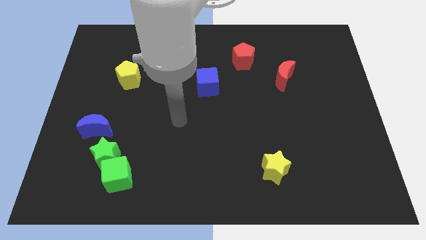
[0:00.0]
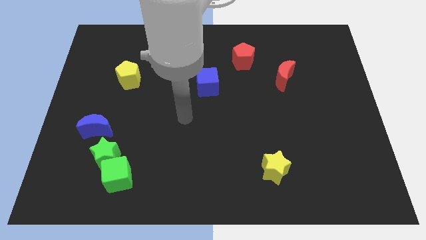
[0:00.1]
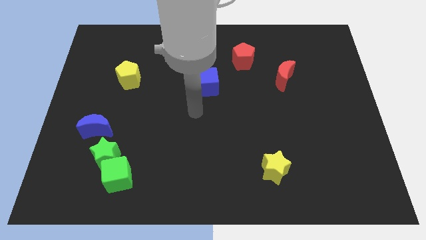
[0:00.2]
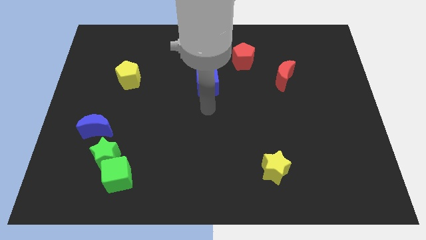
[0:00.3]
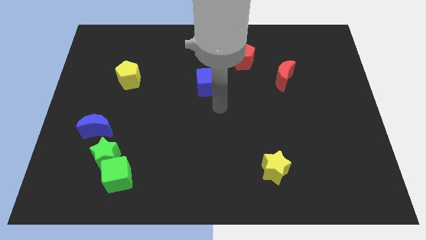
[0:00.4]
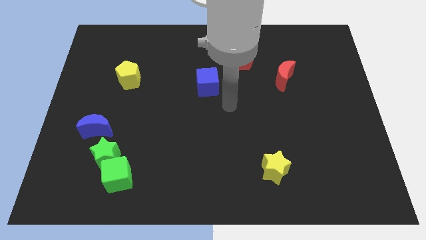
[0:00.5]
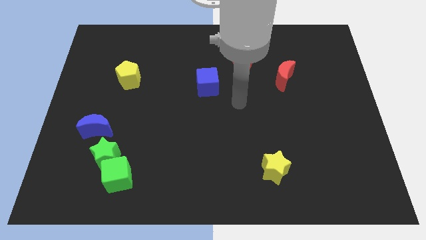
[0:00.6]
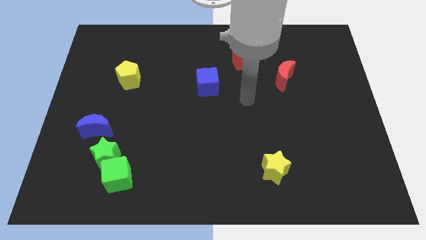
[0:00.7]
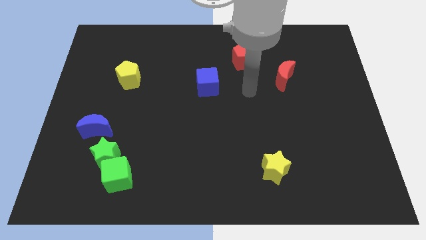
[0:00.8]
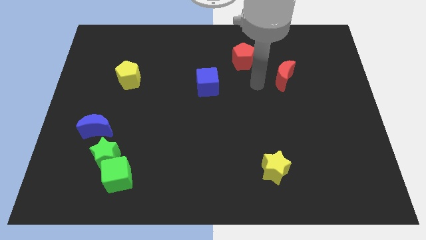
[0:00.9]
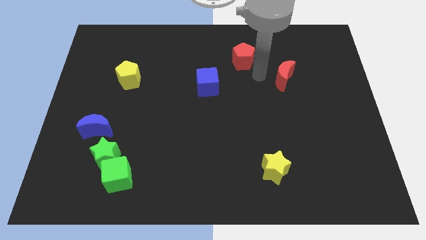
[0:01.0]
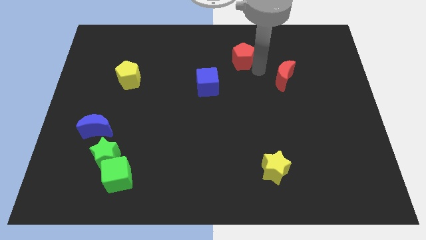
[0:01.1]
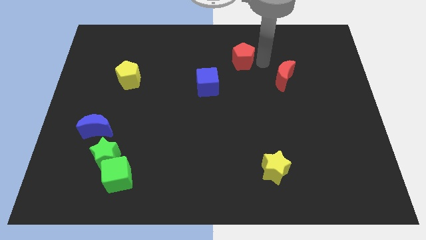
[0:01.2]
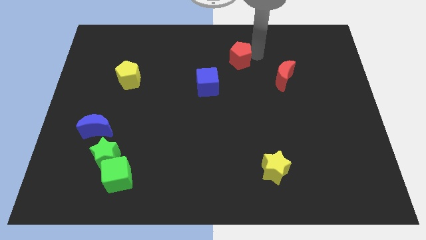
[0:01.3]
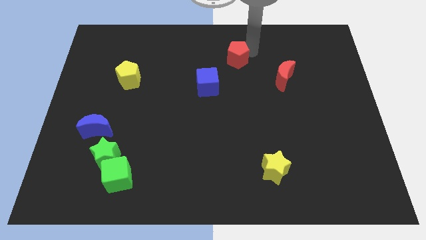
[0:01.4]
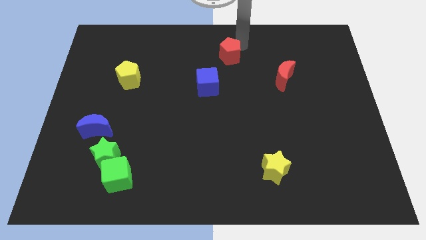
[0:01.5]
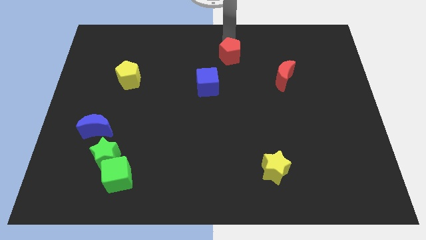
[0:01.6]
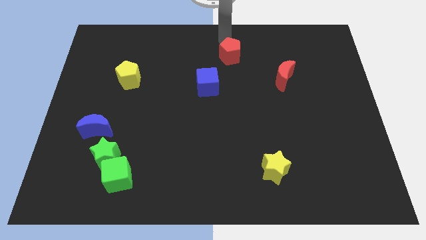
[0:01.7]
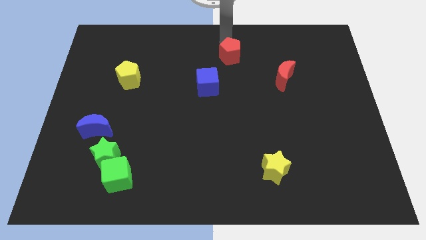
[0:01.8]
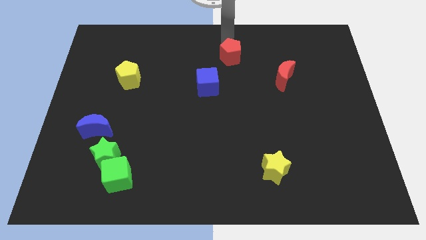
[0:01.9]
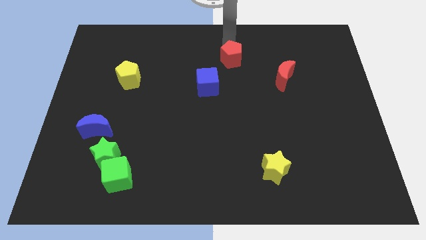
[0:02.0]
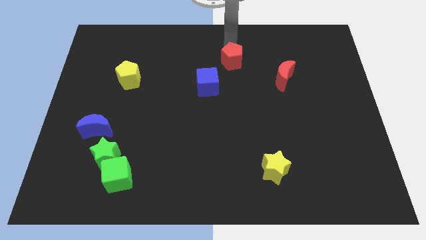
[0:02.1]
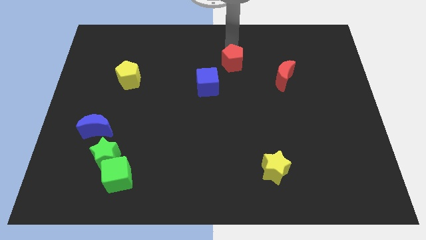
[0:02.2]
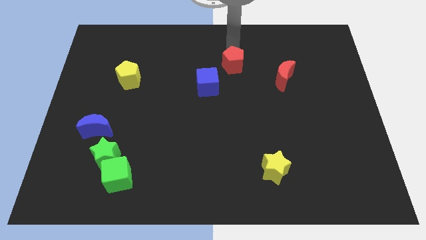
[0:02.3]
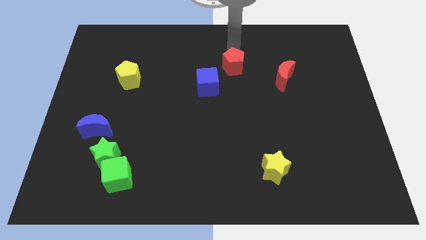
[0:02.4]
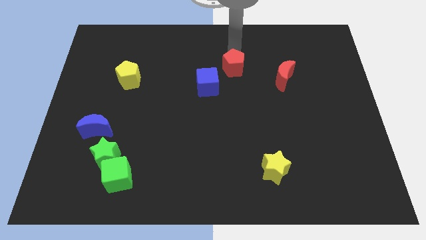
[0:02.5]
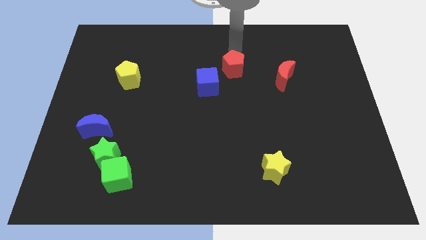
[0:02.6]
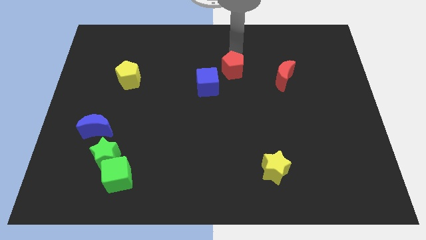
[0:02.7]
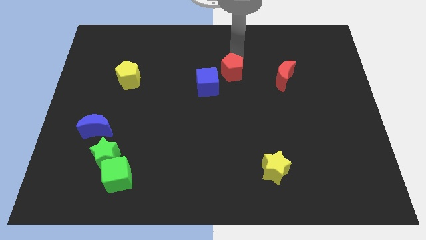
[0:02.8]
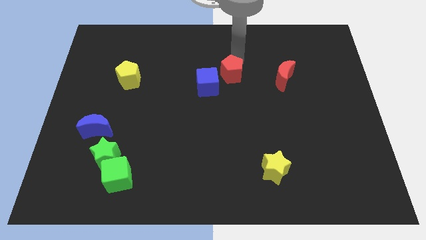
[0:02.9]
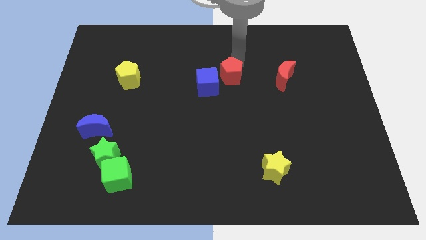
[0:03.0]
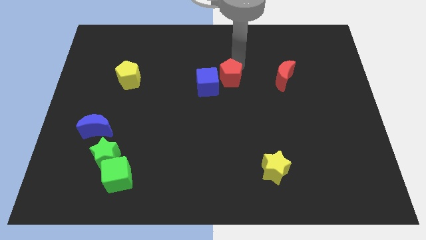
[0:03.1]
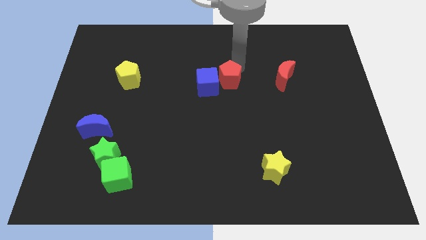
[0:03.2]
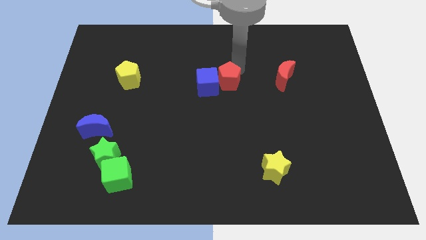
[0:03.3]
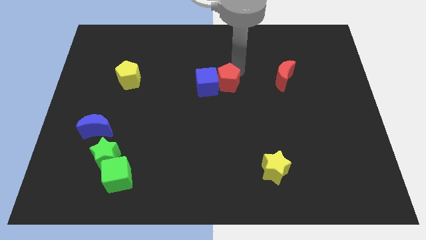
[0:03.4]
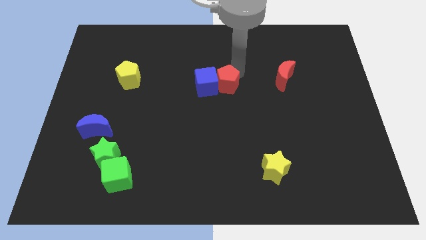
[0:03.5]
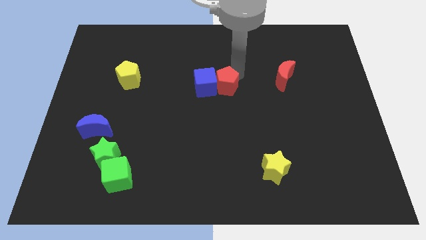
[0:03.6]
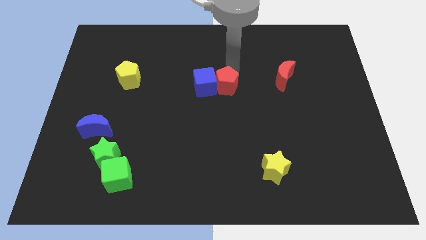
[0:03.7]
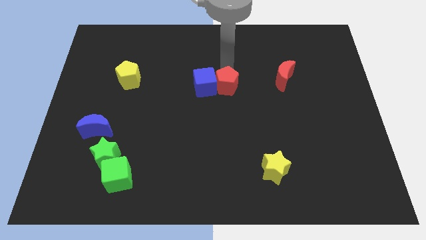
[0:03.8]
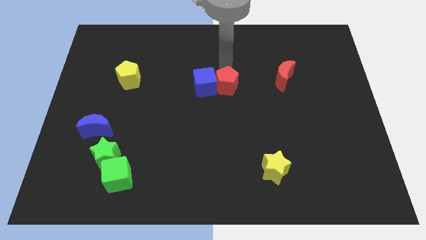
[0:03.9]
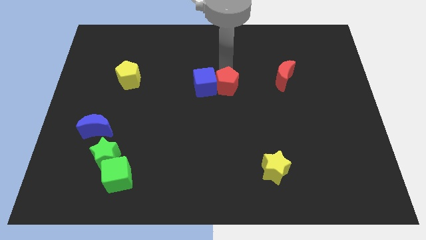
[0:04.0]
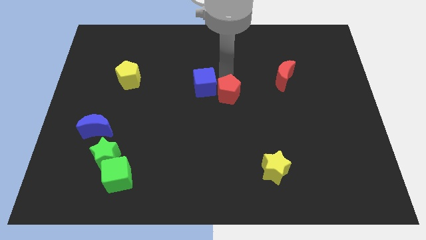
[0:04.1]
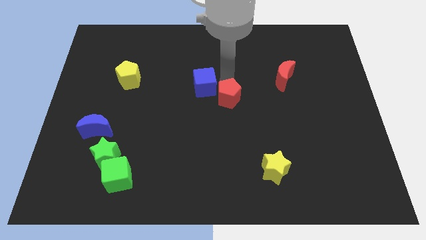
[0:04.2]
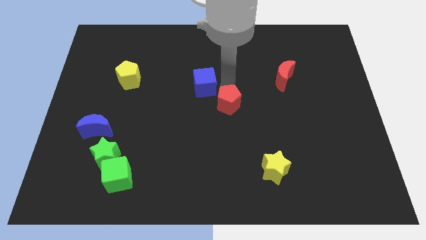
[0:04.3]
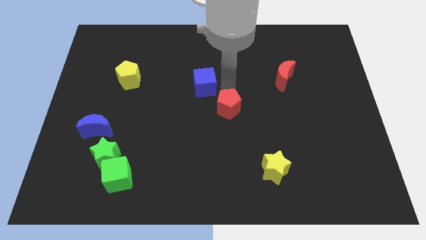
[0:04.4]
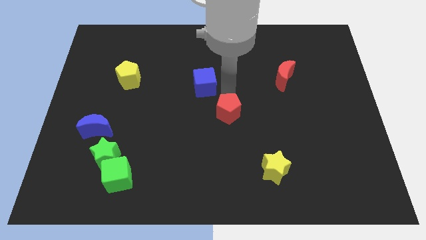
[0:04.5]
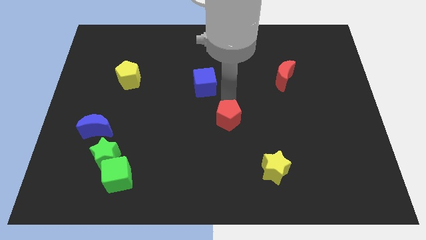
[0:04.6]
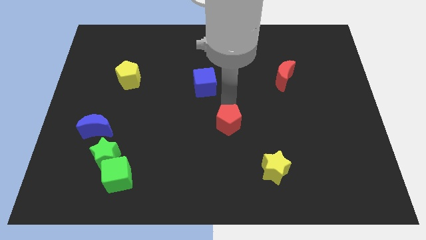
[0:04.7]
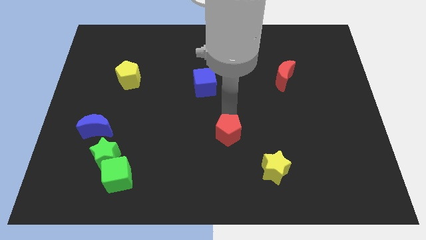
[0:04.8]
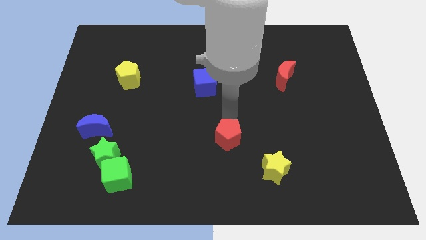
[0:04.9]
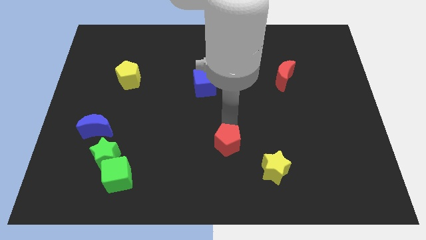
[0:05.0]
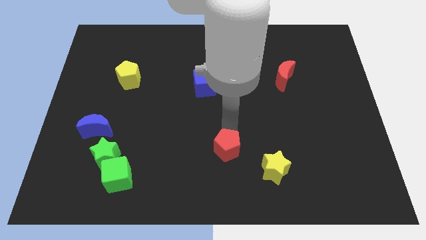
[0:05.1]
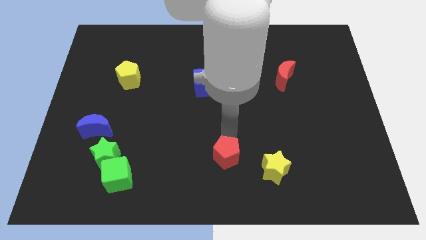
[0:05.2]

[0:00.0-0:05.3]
push the red pentagon to the bottom

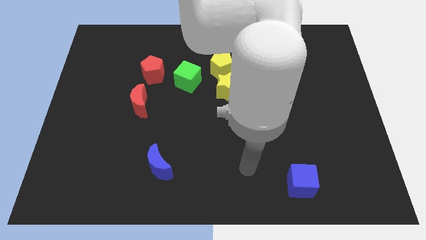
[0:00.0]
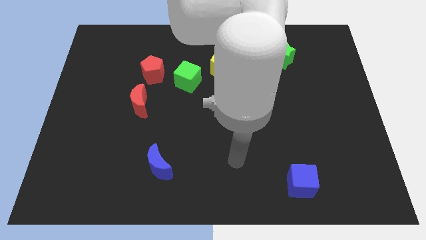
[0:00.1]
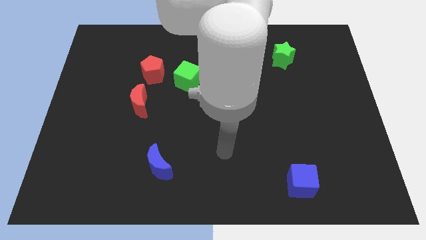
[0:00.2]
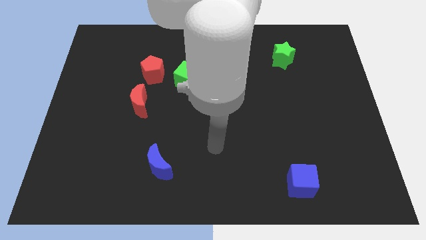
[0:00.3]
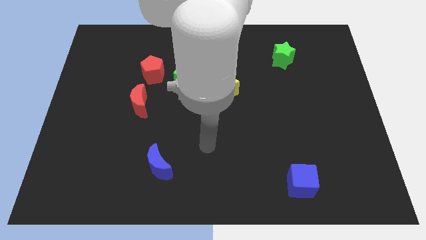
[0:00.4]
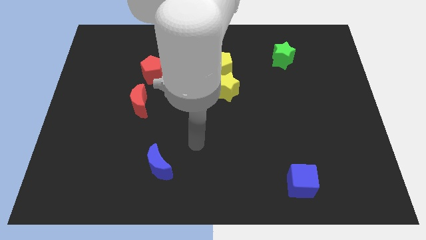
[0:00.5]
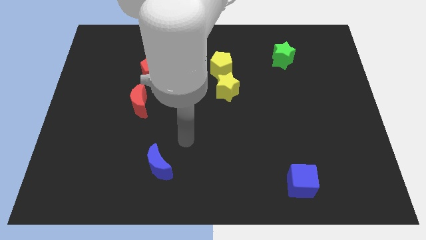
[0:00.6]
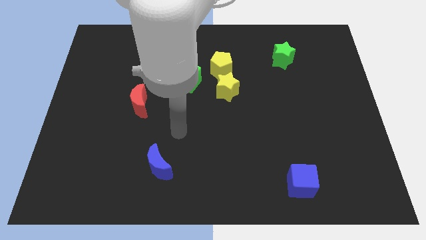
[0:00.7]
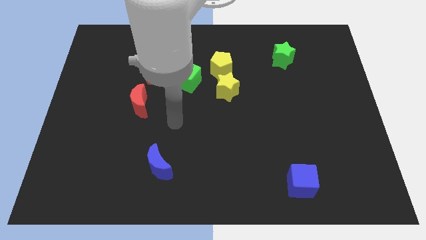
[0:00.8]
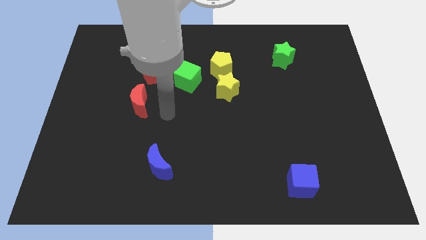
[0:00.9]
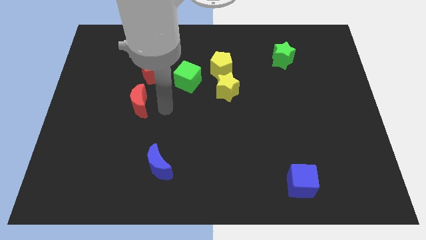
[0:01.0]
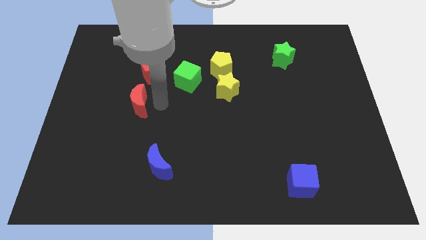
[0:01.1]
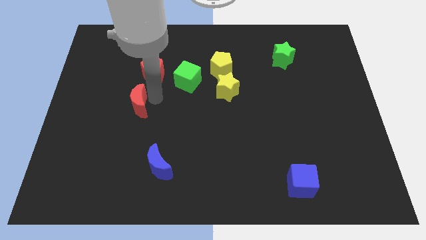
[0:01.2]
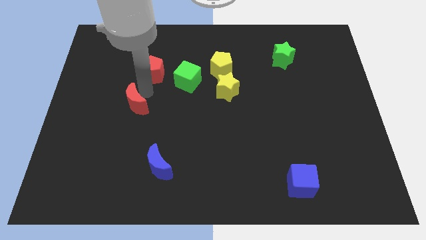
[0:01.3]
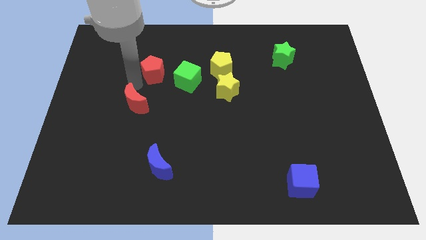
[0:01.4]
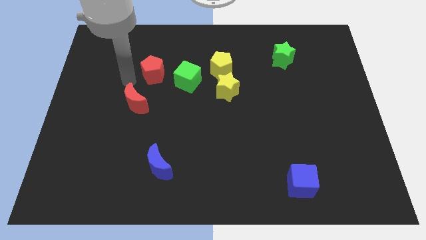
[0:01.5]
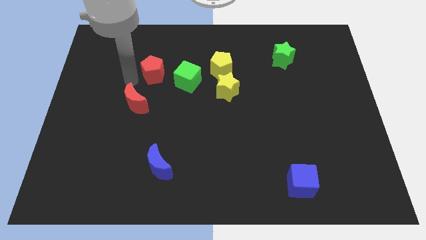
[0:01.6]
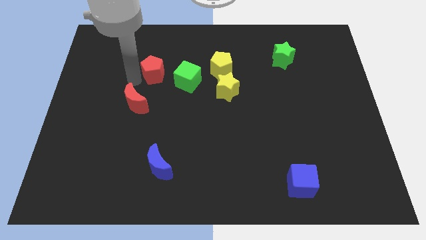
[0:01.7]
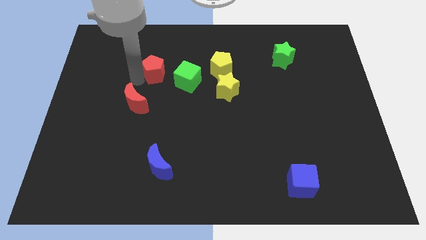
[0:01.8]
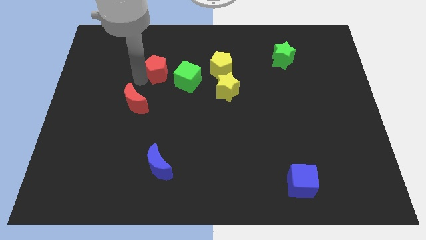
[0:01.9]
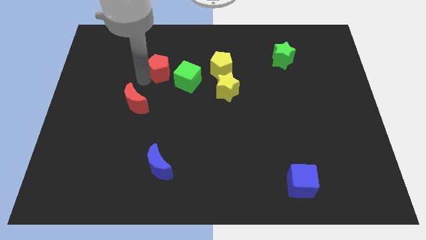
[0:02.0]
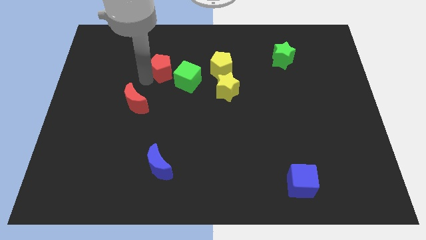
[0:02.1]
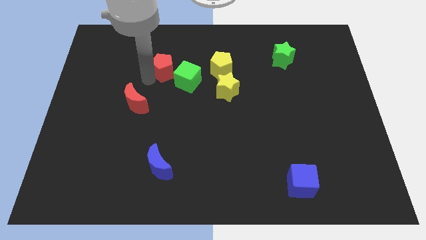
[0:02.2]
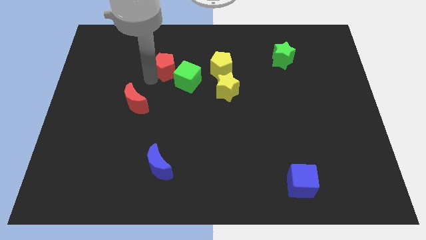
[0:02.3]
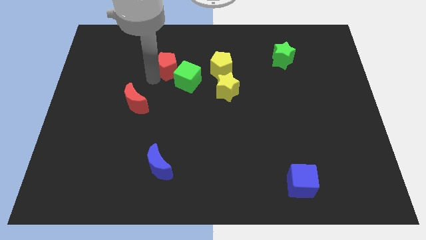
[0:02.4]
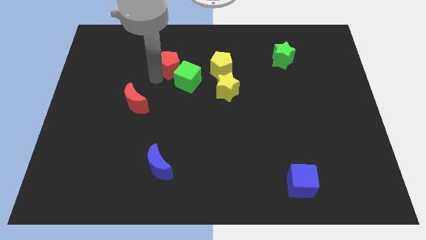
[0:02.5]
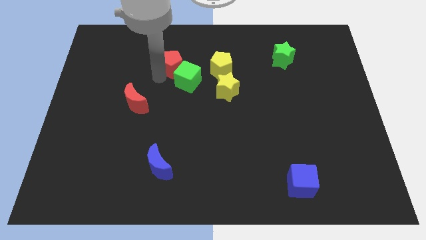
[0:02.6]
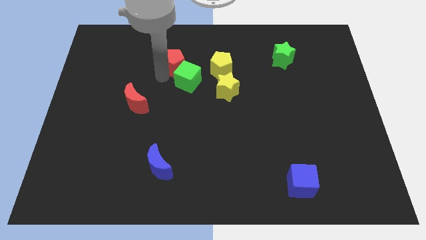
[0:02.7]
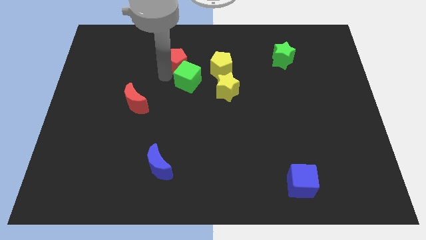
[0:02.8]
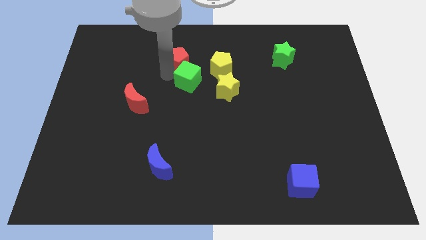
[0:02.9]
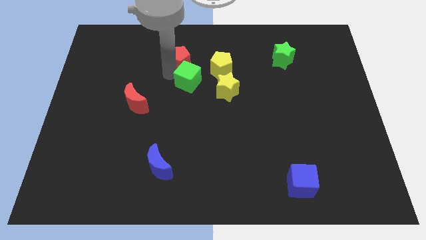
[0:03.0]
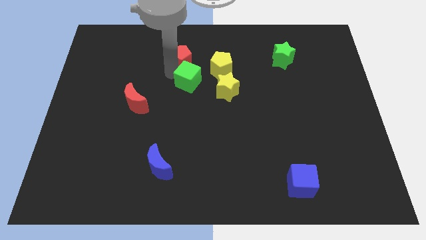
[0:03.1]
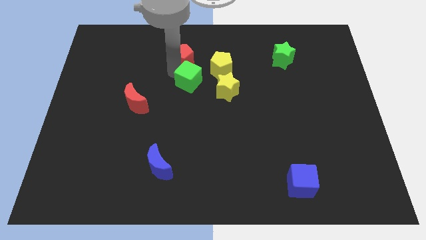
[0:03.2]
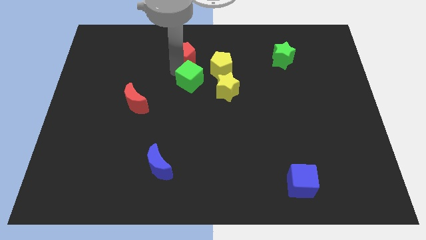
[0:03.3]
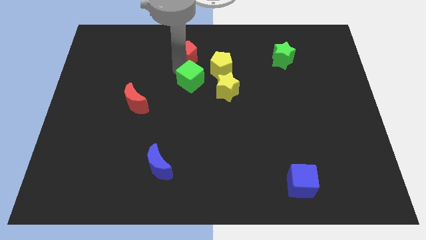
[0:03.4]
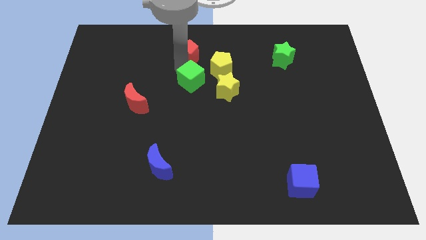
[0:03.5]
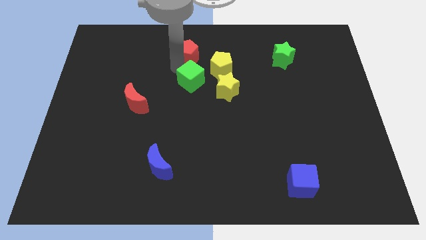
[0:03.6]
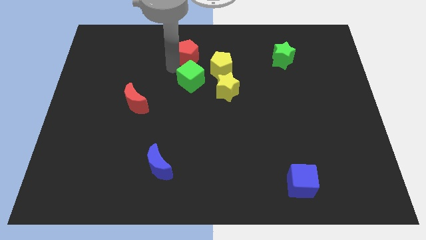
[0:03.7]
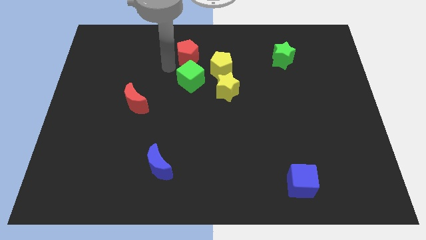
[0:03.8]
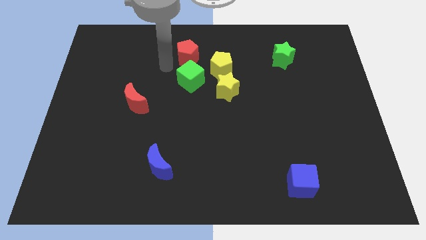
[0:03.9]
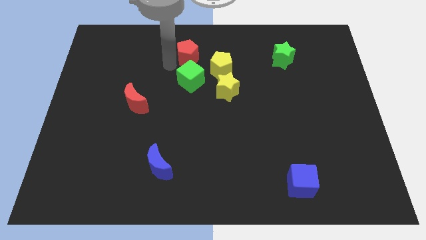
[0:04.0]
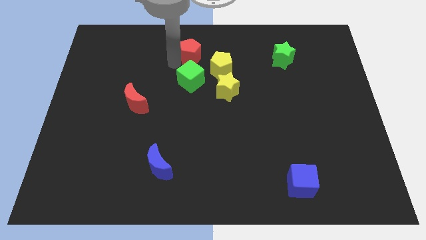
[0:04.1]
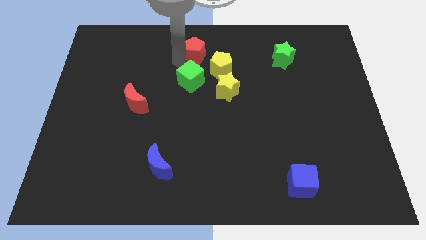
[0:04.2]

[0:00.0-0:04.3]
slide the red pentagon to the towards your base
